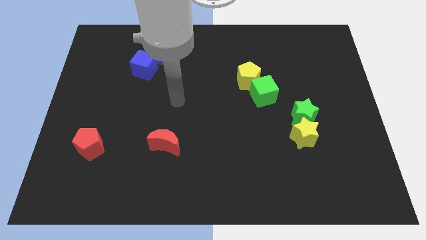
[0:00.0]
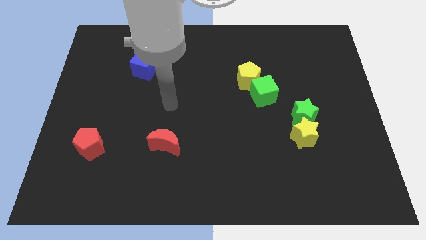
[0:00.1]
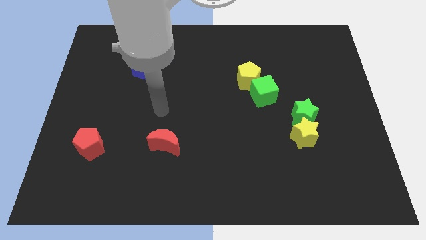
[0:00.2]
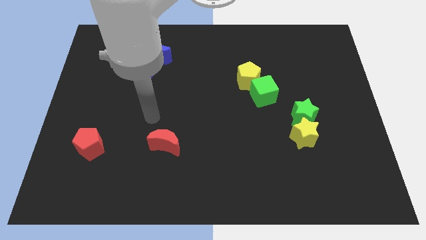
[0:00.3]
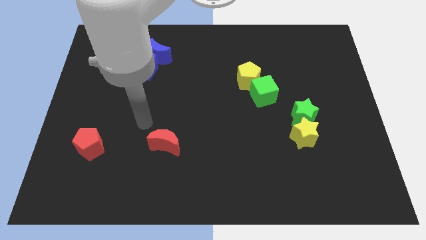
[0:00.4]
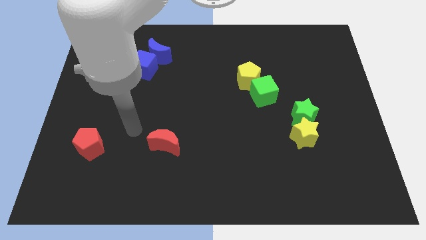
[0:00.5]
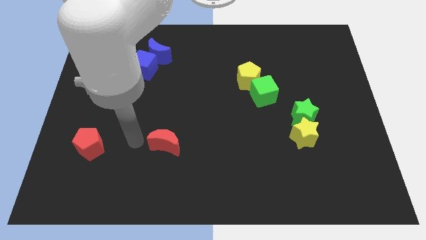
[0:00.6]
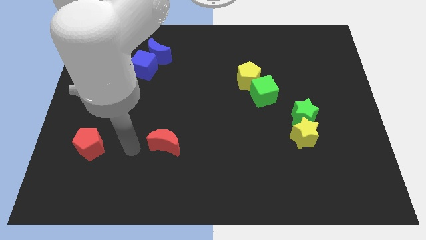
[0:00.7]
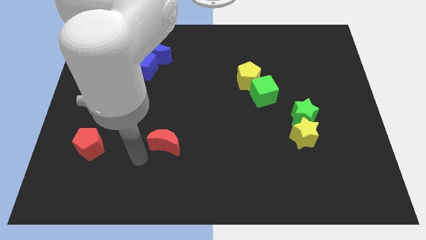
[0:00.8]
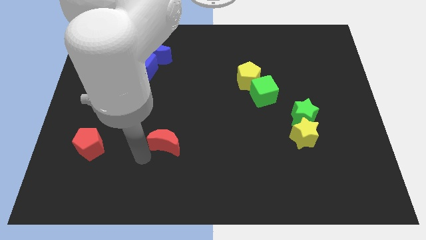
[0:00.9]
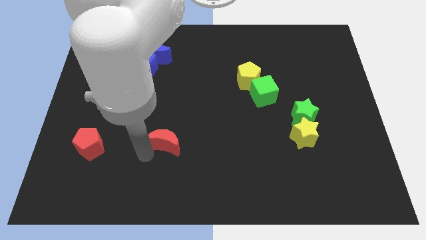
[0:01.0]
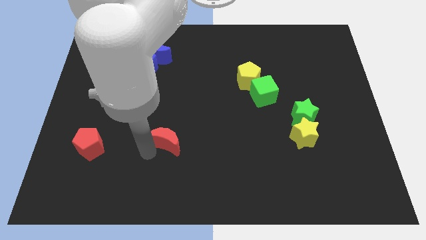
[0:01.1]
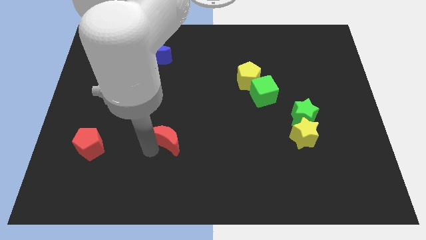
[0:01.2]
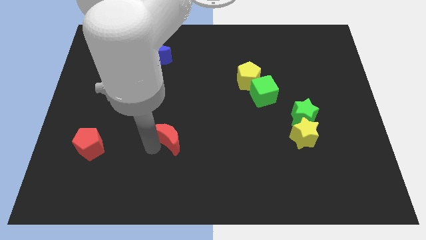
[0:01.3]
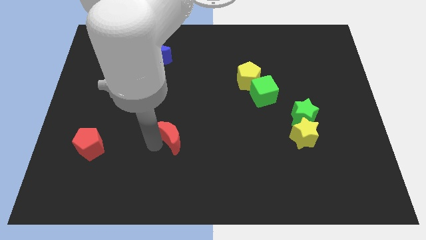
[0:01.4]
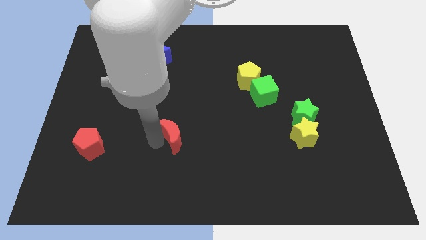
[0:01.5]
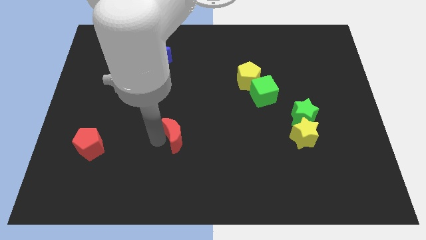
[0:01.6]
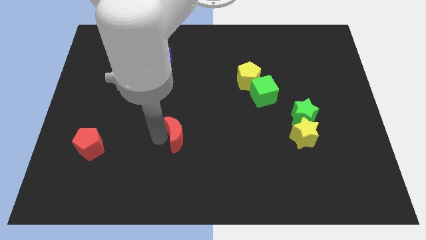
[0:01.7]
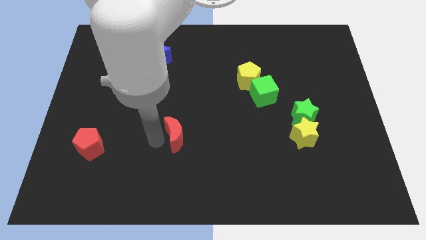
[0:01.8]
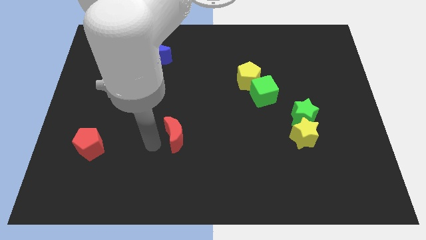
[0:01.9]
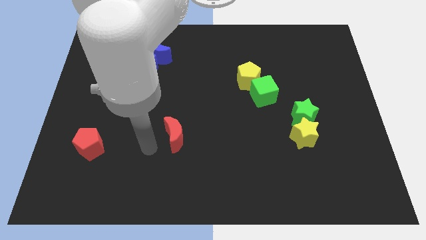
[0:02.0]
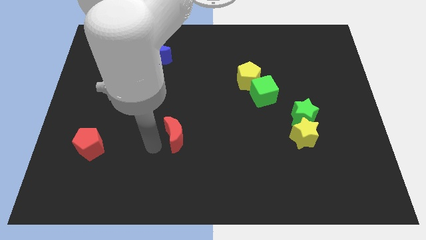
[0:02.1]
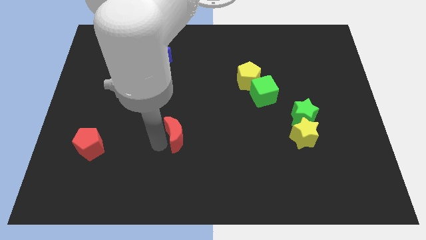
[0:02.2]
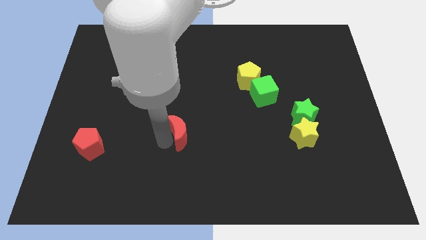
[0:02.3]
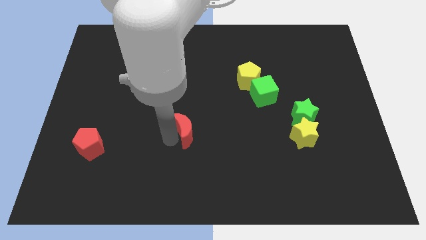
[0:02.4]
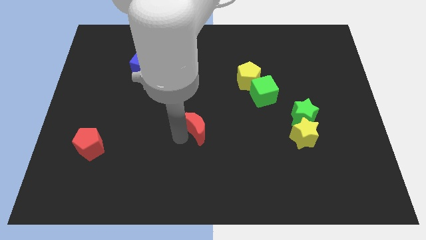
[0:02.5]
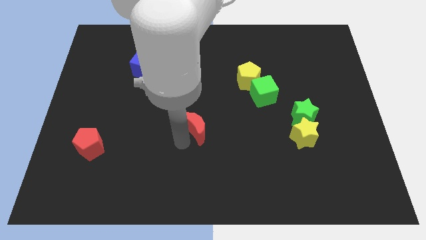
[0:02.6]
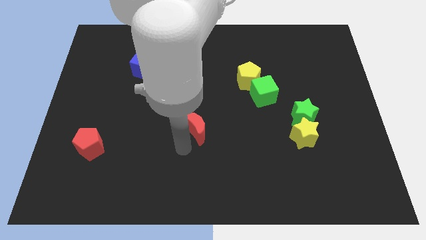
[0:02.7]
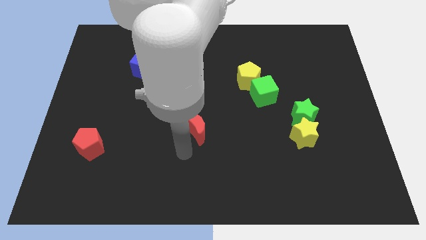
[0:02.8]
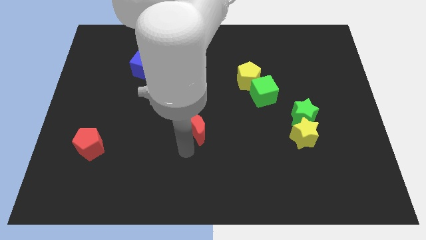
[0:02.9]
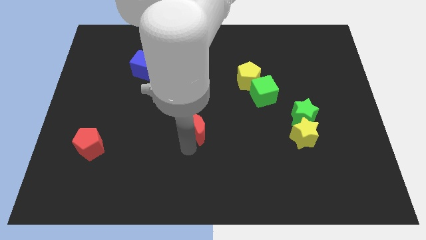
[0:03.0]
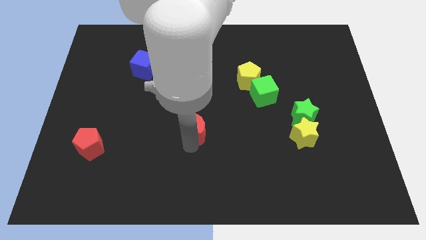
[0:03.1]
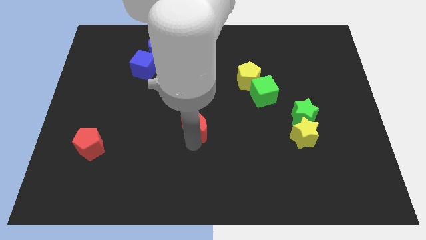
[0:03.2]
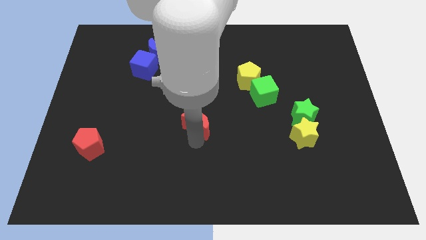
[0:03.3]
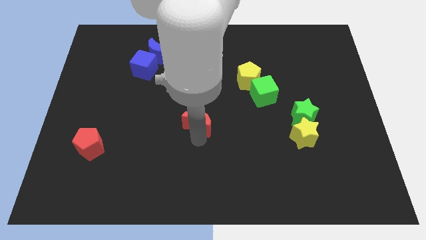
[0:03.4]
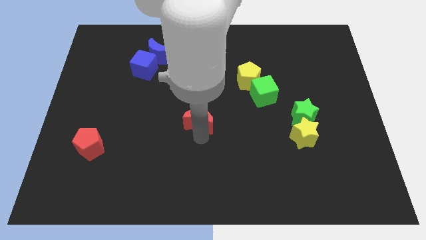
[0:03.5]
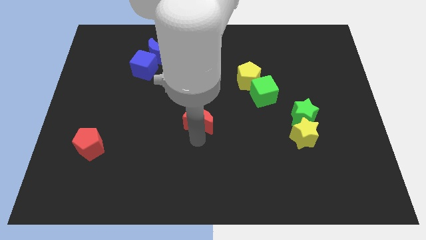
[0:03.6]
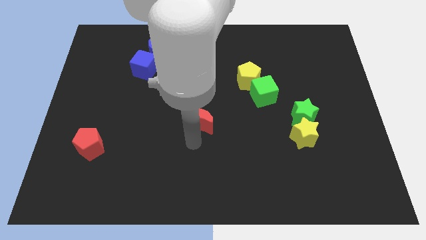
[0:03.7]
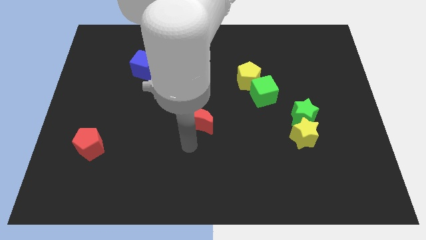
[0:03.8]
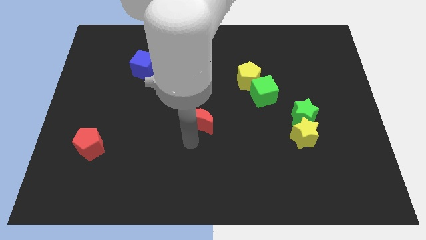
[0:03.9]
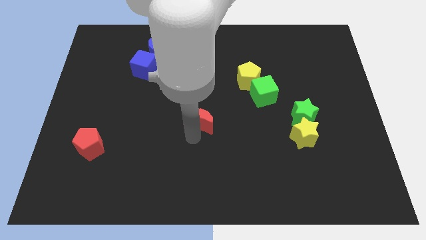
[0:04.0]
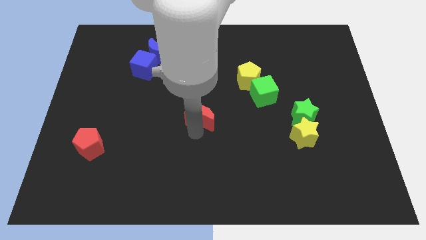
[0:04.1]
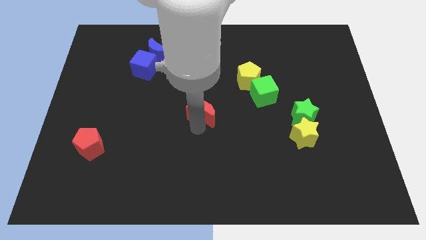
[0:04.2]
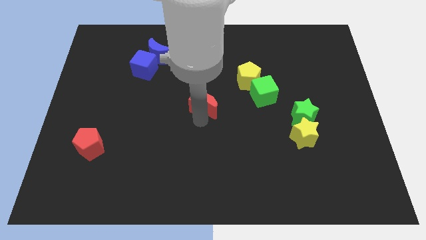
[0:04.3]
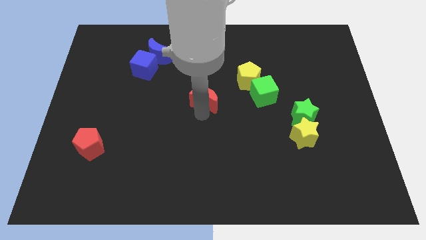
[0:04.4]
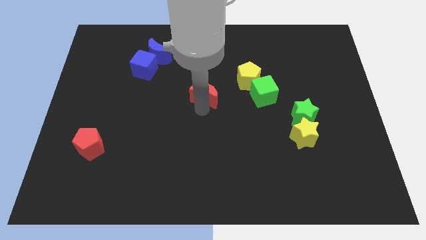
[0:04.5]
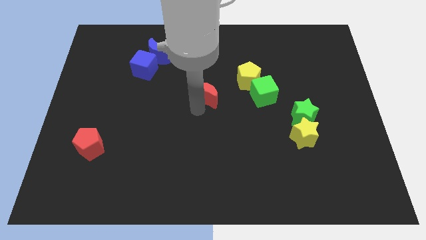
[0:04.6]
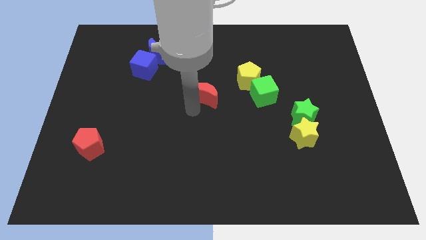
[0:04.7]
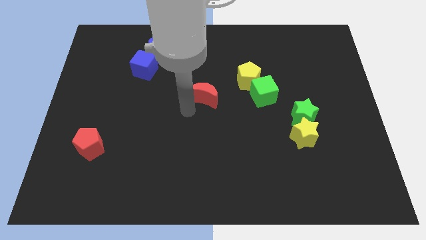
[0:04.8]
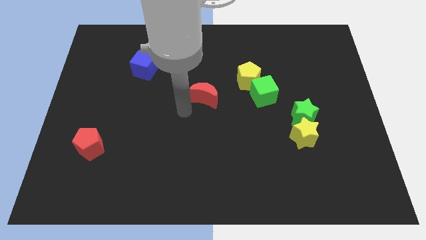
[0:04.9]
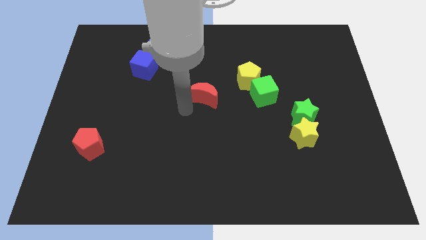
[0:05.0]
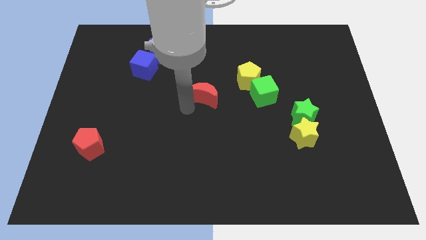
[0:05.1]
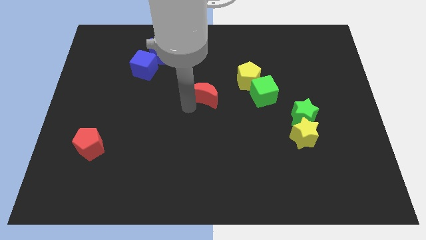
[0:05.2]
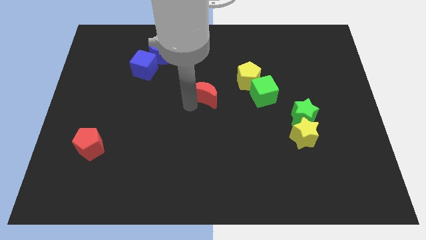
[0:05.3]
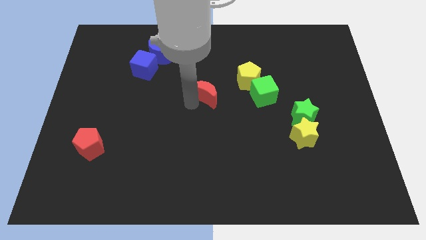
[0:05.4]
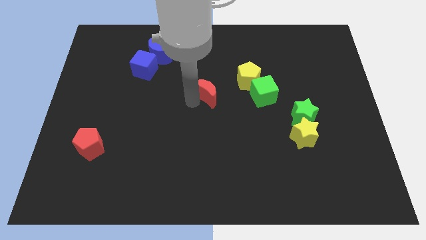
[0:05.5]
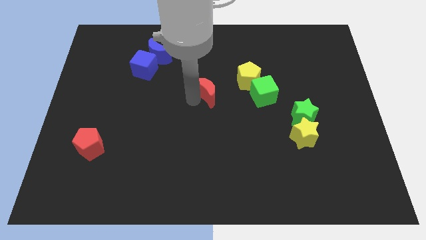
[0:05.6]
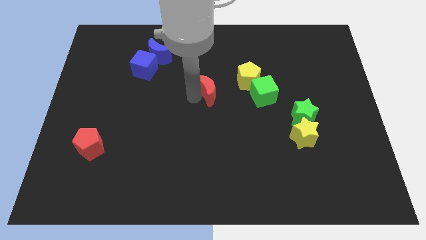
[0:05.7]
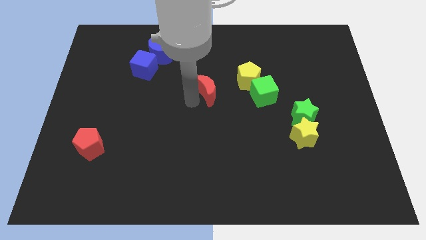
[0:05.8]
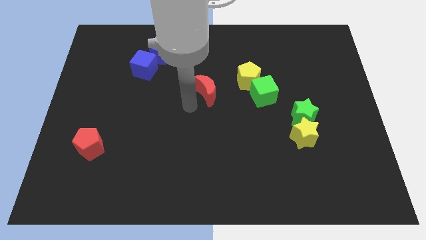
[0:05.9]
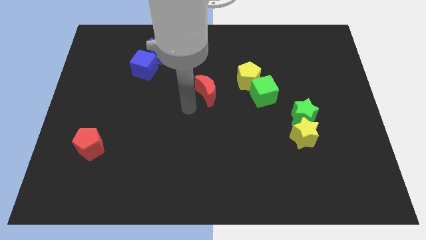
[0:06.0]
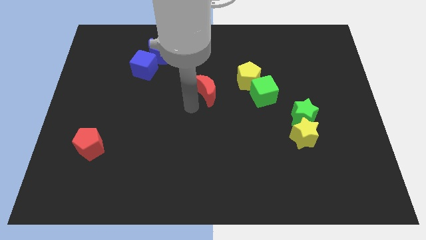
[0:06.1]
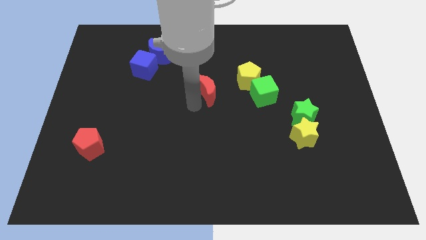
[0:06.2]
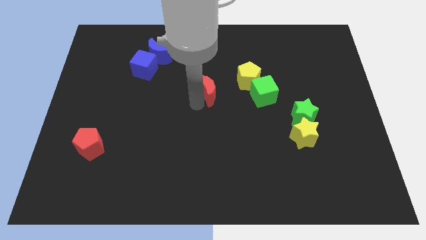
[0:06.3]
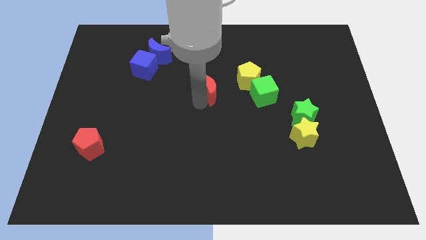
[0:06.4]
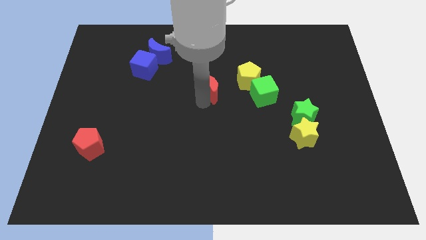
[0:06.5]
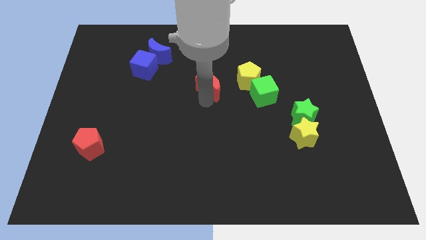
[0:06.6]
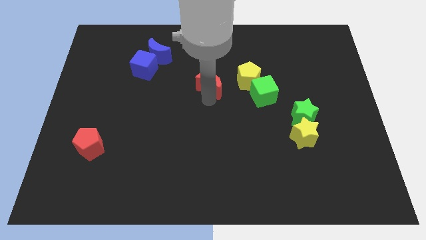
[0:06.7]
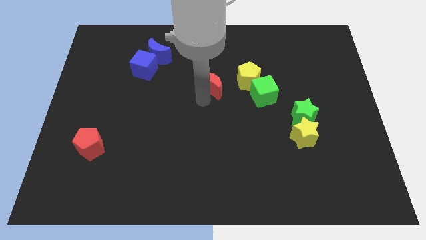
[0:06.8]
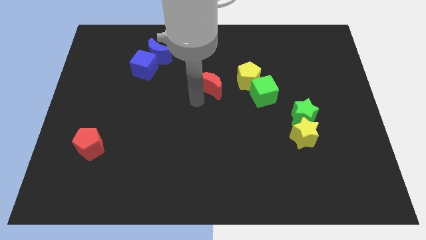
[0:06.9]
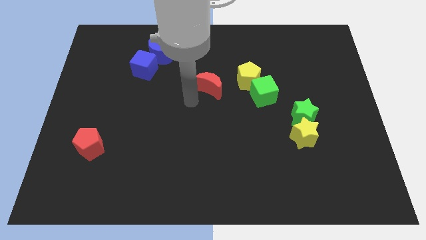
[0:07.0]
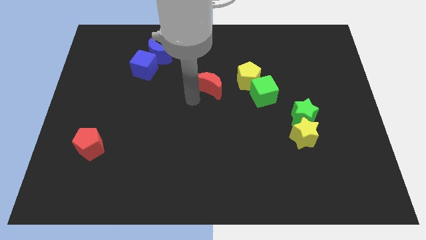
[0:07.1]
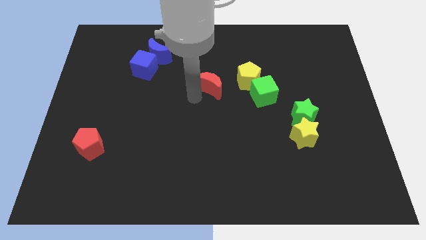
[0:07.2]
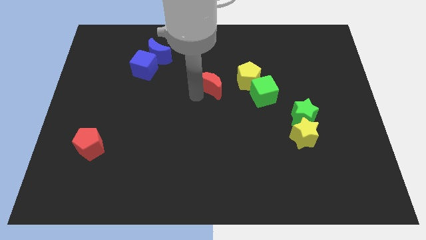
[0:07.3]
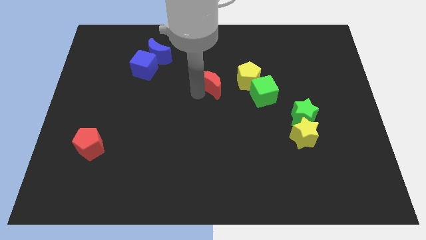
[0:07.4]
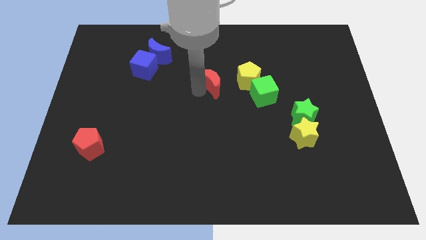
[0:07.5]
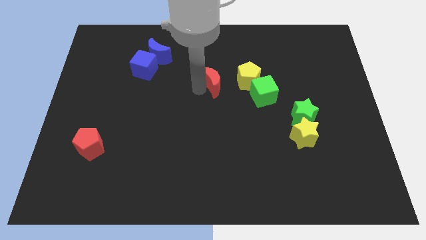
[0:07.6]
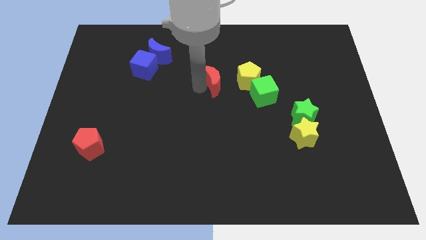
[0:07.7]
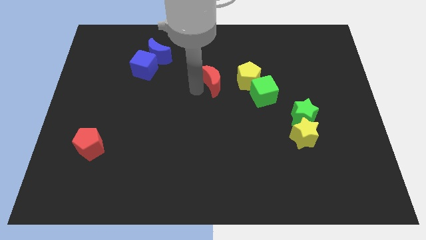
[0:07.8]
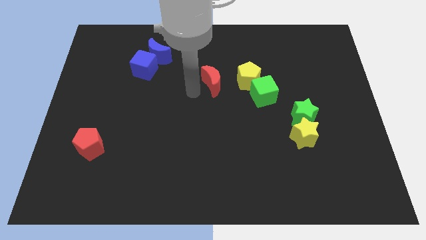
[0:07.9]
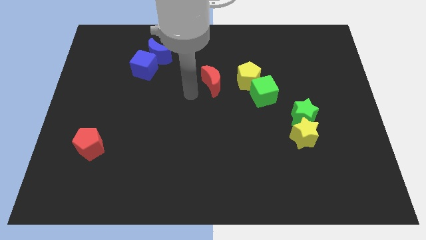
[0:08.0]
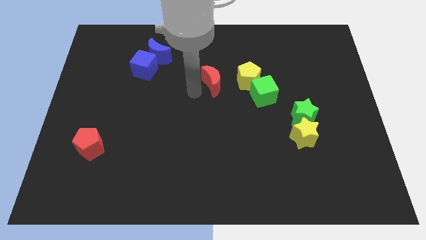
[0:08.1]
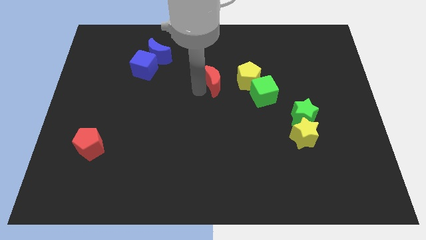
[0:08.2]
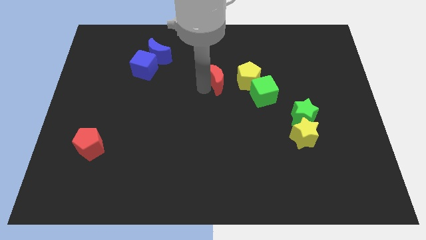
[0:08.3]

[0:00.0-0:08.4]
push the red moon upwards and right
